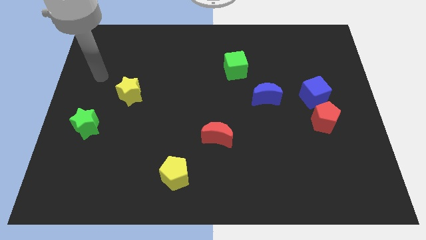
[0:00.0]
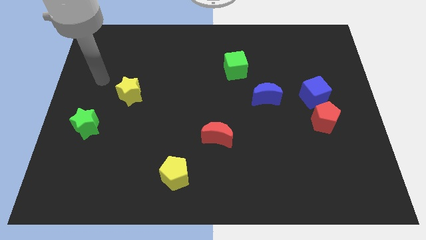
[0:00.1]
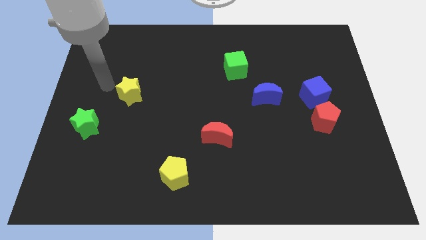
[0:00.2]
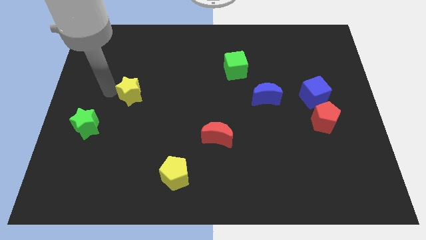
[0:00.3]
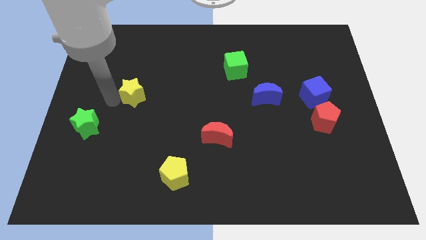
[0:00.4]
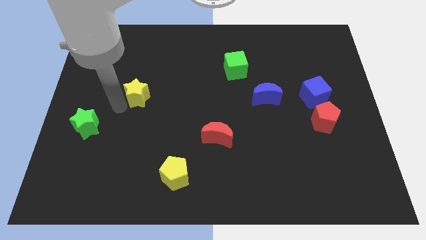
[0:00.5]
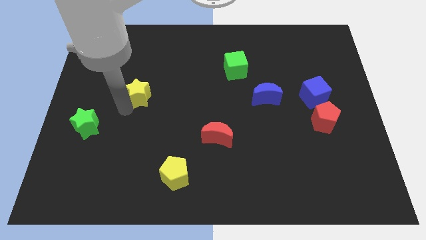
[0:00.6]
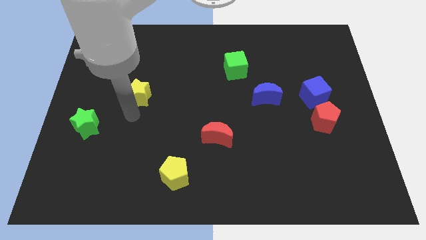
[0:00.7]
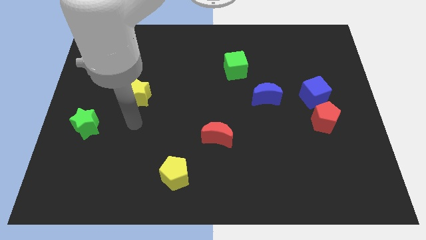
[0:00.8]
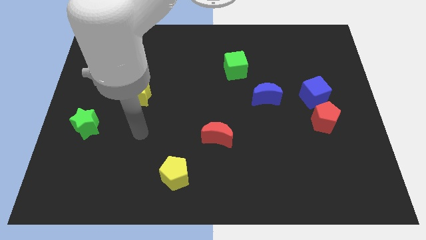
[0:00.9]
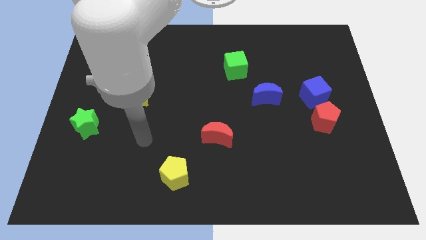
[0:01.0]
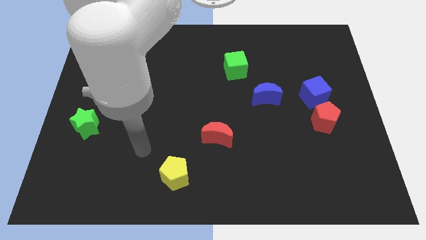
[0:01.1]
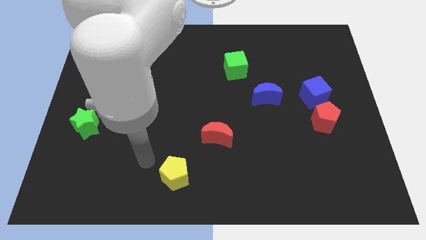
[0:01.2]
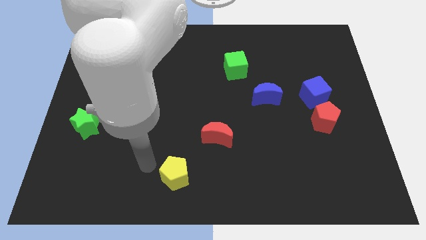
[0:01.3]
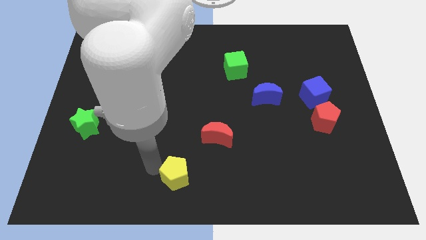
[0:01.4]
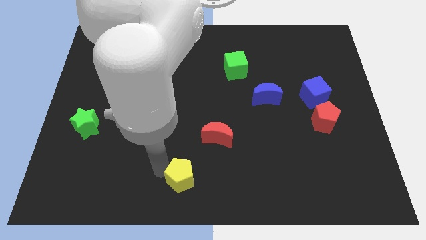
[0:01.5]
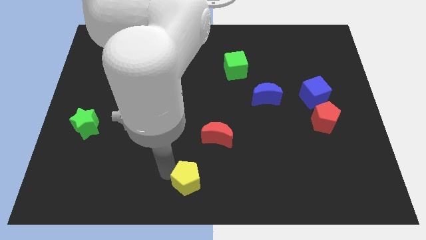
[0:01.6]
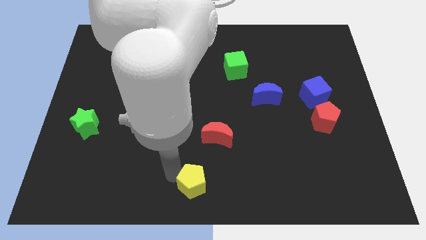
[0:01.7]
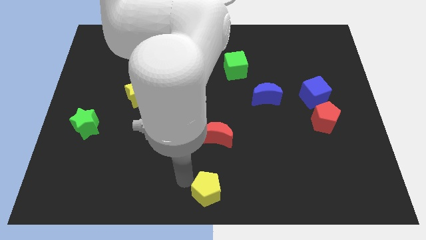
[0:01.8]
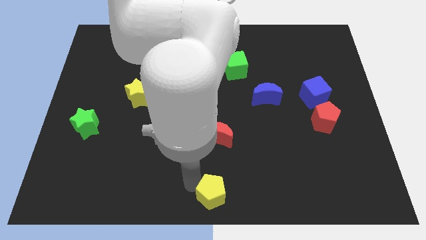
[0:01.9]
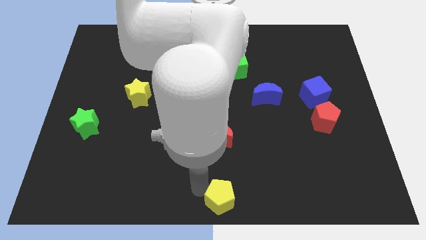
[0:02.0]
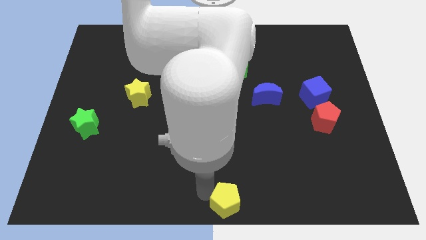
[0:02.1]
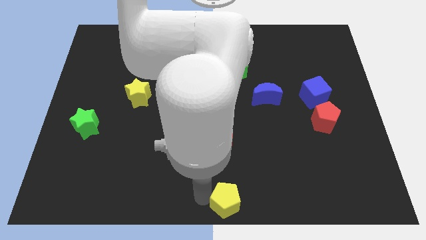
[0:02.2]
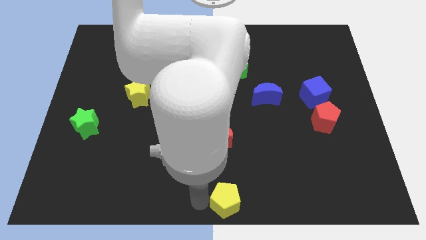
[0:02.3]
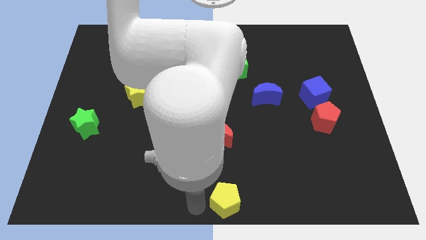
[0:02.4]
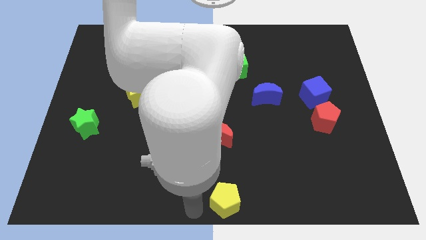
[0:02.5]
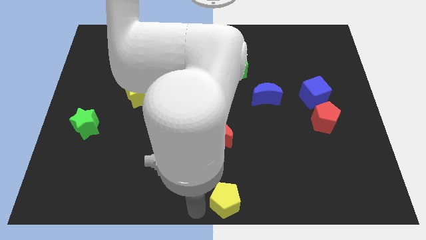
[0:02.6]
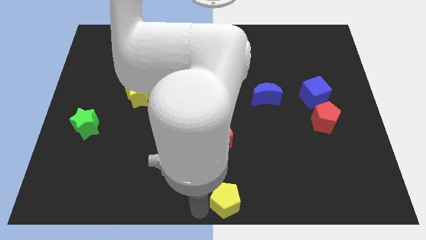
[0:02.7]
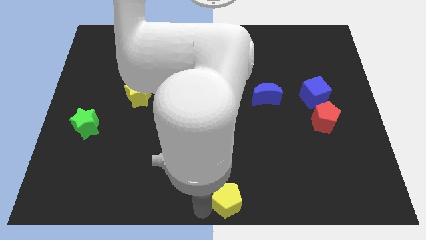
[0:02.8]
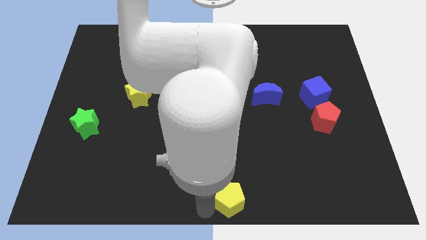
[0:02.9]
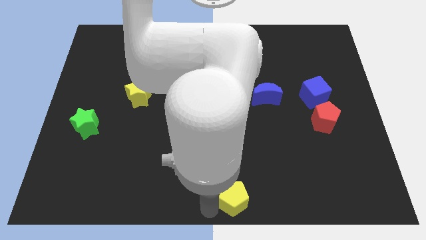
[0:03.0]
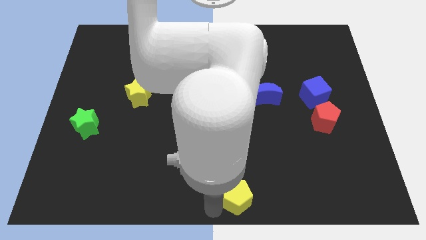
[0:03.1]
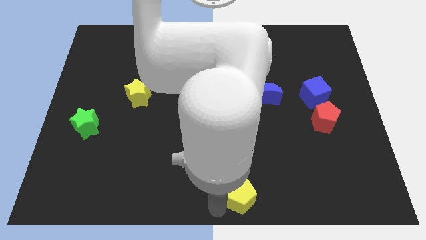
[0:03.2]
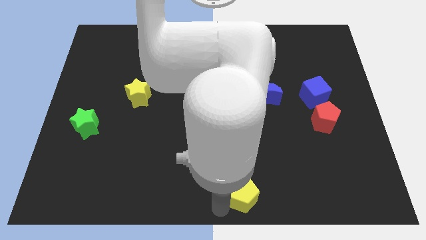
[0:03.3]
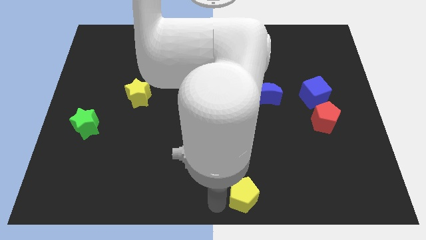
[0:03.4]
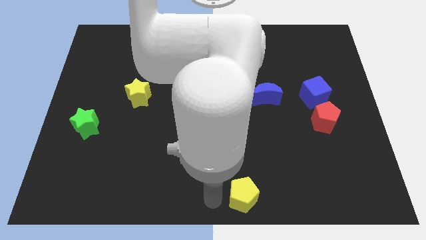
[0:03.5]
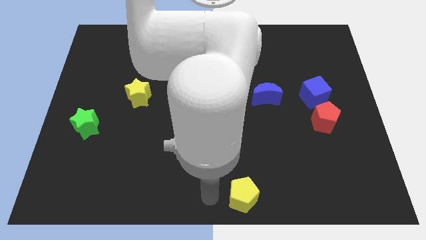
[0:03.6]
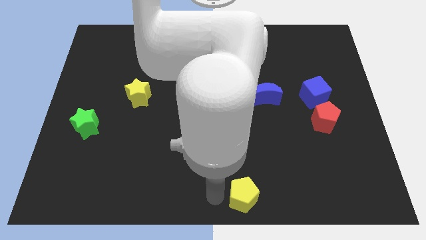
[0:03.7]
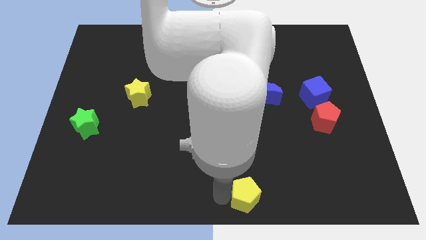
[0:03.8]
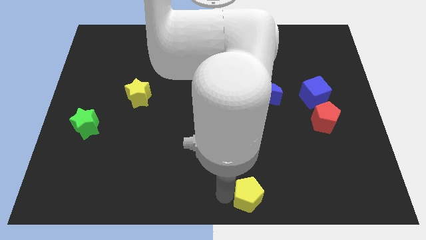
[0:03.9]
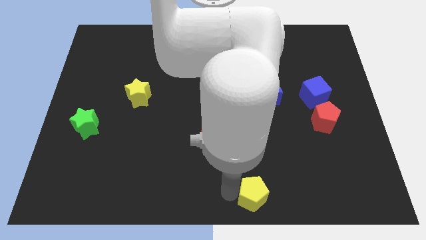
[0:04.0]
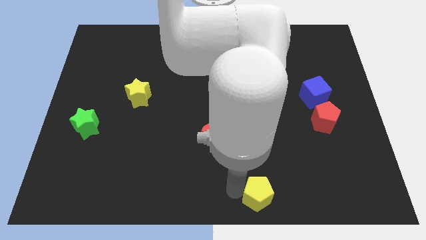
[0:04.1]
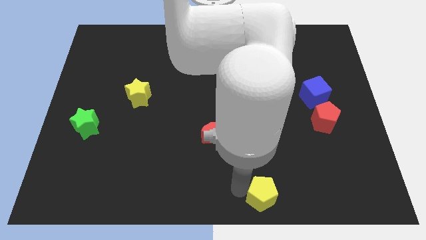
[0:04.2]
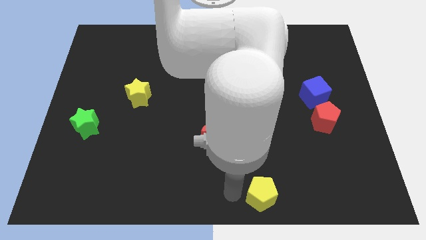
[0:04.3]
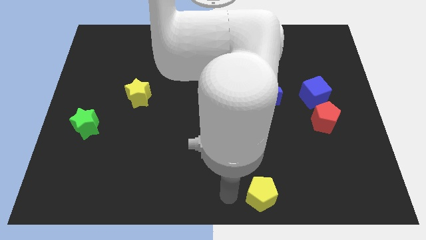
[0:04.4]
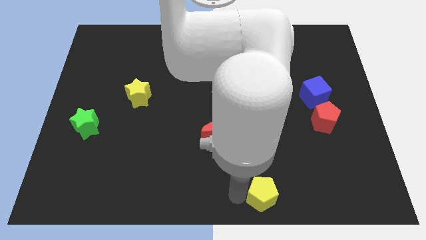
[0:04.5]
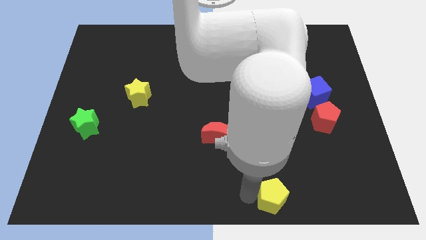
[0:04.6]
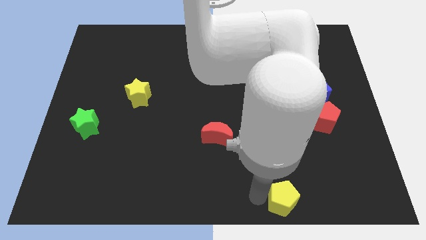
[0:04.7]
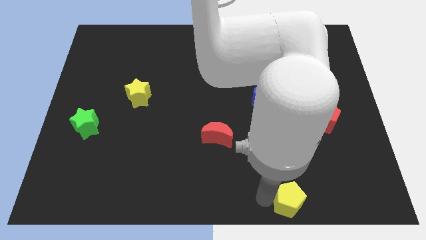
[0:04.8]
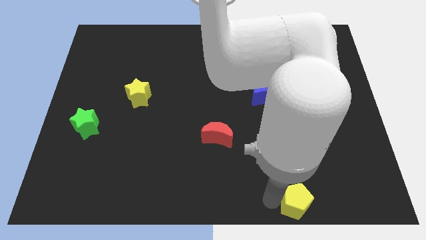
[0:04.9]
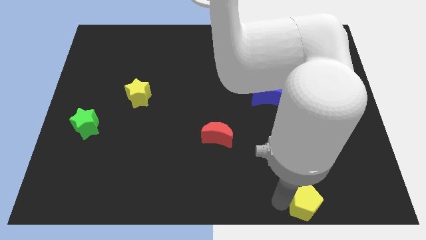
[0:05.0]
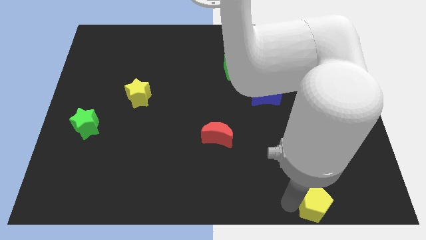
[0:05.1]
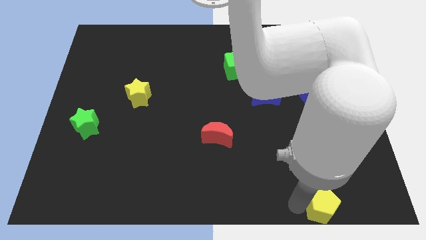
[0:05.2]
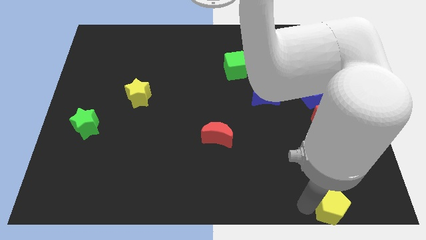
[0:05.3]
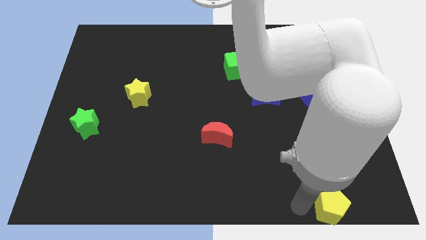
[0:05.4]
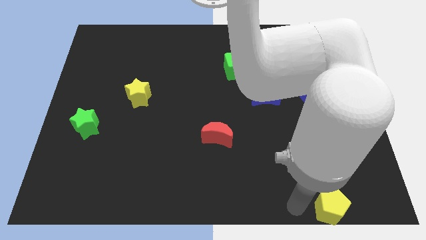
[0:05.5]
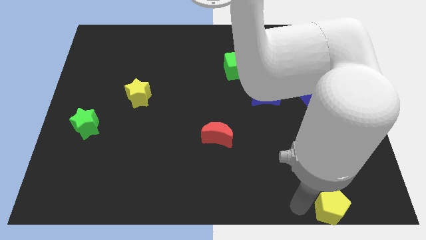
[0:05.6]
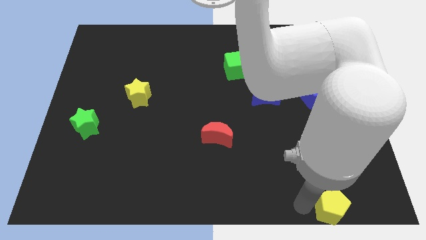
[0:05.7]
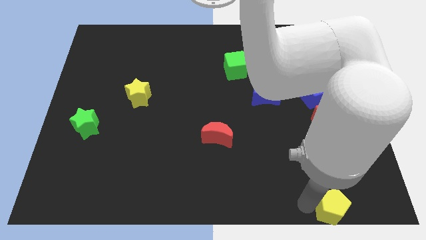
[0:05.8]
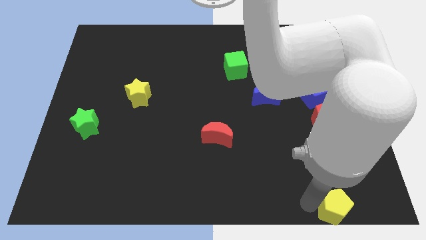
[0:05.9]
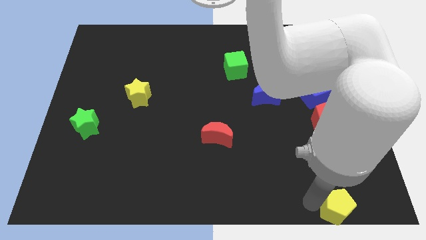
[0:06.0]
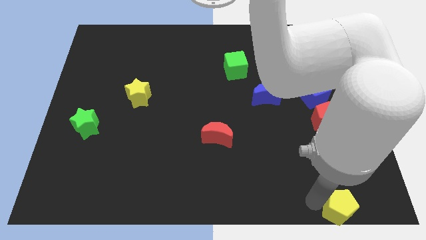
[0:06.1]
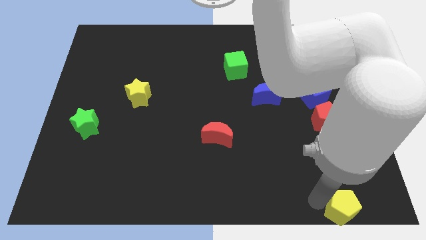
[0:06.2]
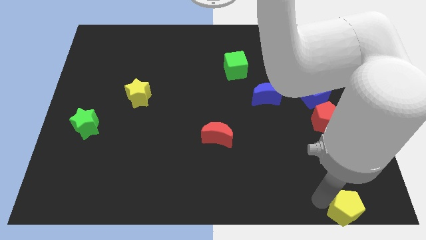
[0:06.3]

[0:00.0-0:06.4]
slide the yellow pentagon to the bottom right

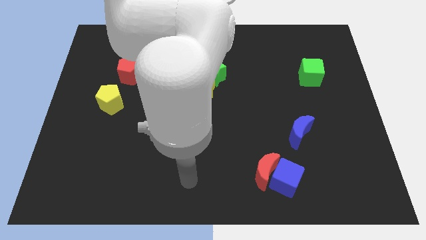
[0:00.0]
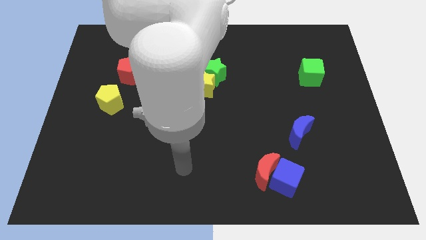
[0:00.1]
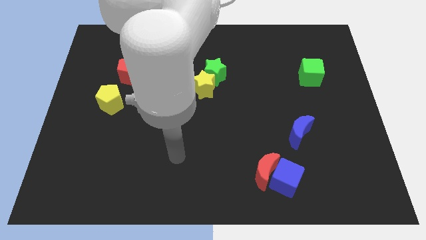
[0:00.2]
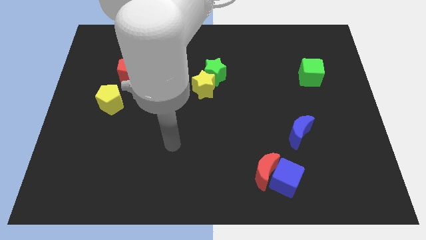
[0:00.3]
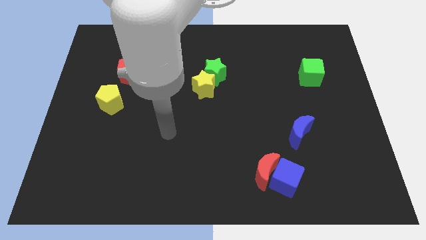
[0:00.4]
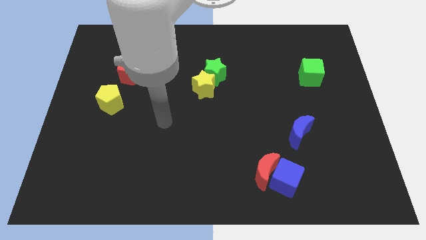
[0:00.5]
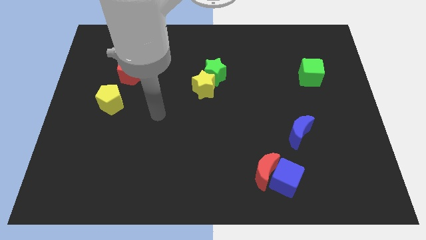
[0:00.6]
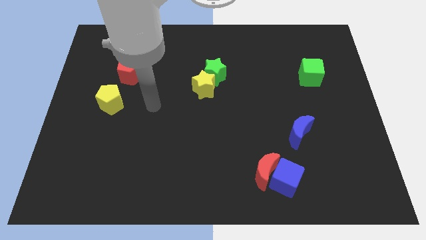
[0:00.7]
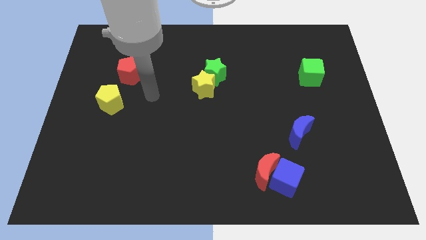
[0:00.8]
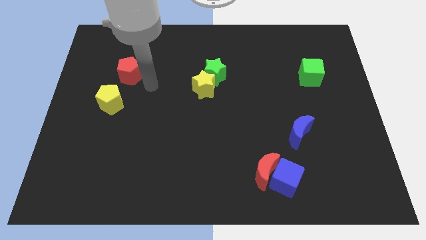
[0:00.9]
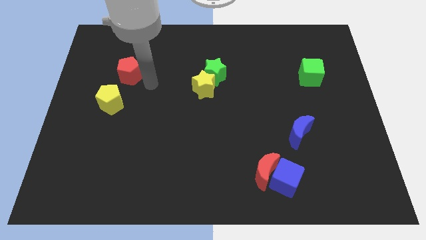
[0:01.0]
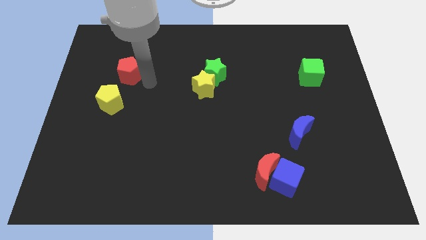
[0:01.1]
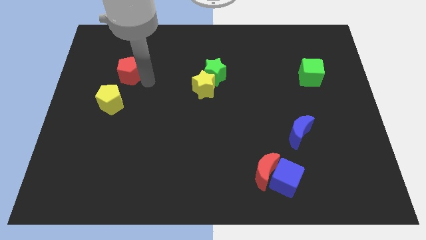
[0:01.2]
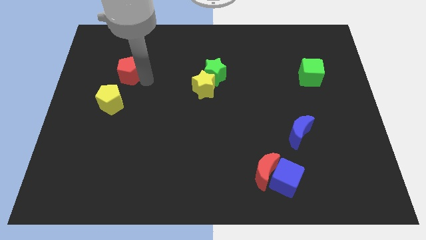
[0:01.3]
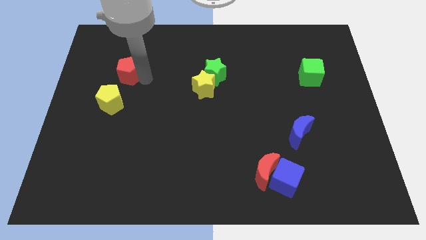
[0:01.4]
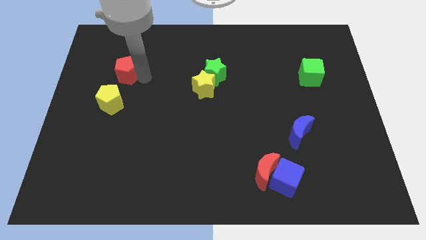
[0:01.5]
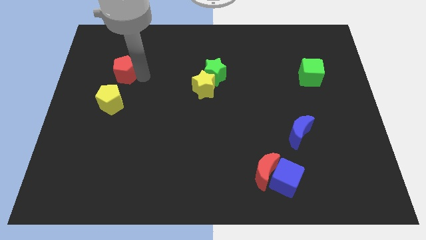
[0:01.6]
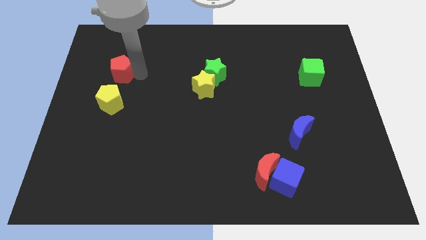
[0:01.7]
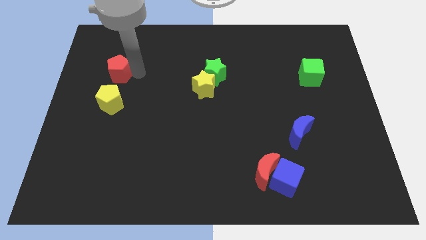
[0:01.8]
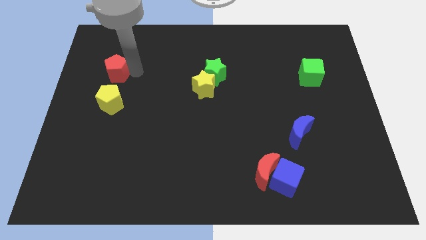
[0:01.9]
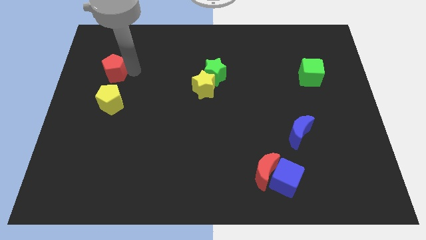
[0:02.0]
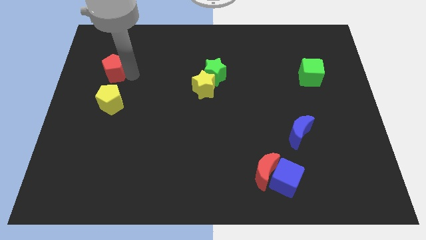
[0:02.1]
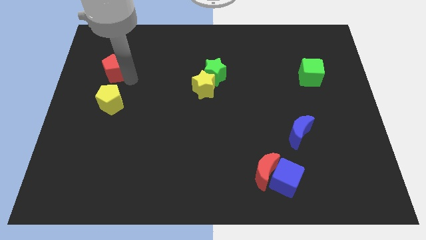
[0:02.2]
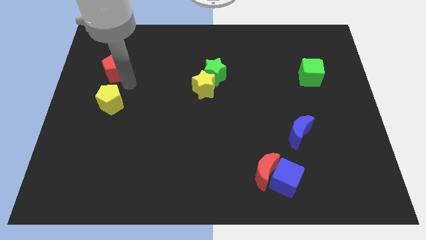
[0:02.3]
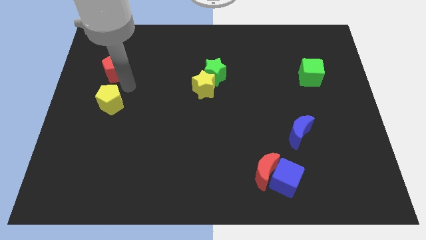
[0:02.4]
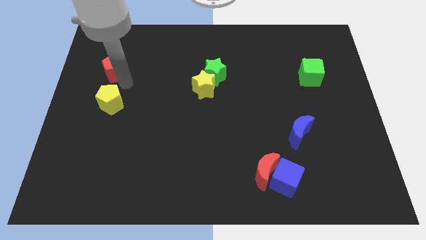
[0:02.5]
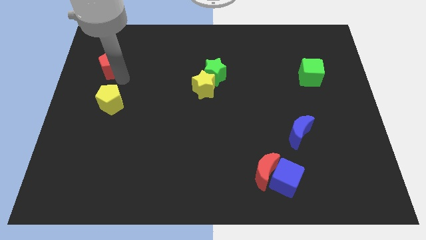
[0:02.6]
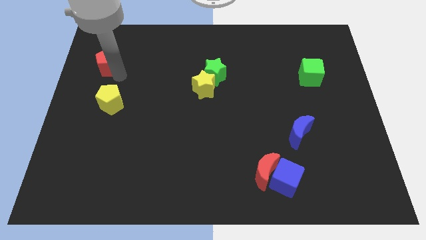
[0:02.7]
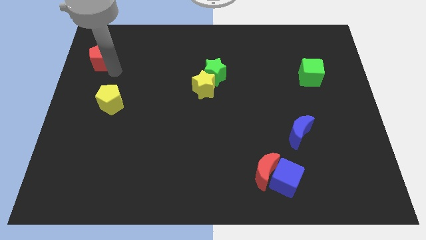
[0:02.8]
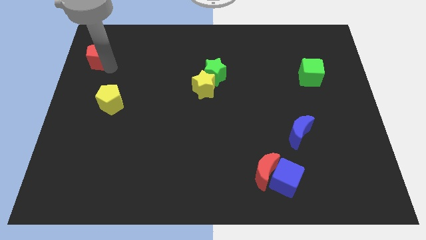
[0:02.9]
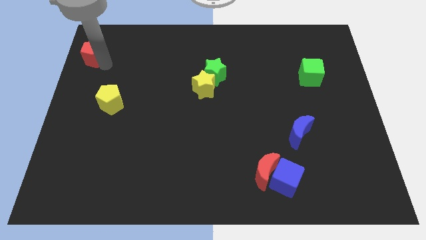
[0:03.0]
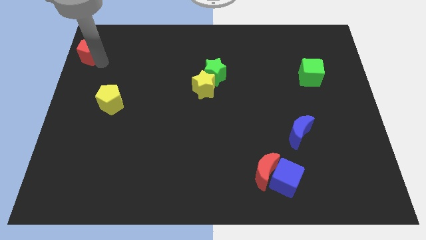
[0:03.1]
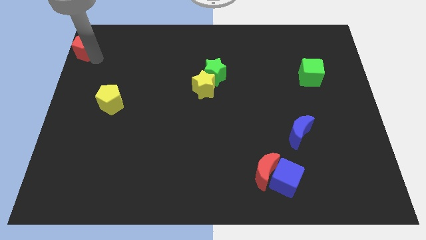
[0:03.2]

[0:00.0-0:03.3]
move the red pentagon to the top left corner
